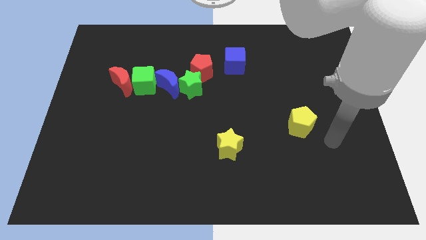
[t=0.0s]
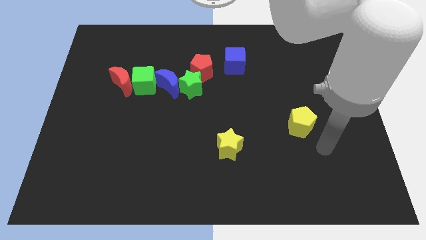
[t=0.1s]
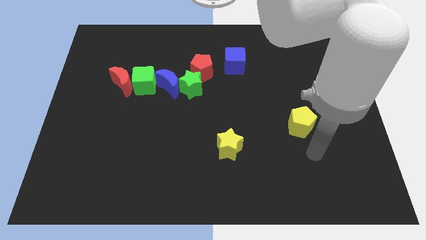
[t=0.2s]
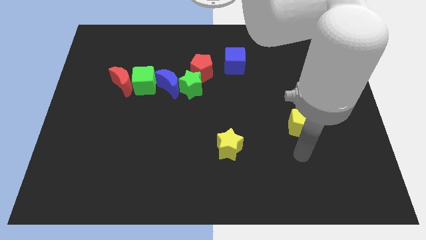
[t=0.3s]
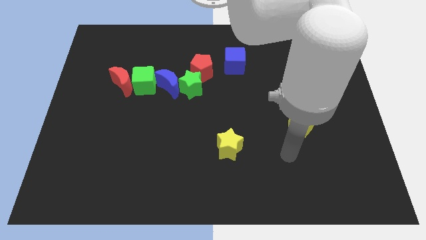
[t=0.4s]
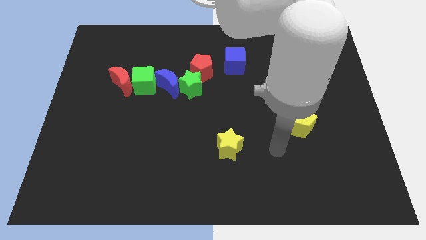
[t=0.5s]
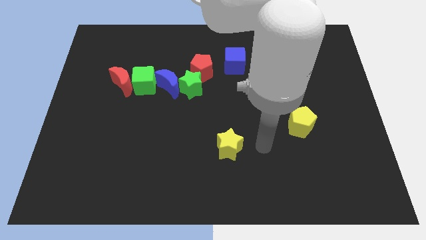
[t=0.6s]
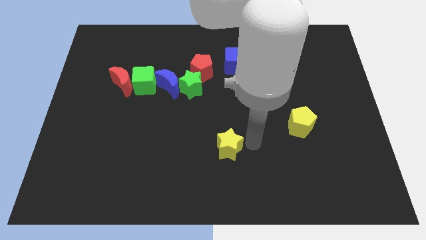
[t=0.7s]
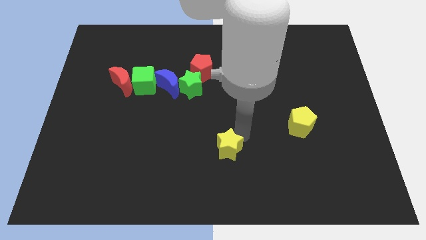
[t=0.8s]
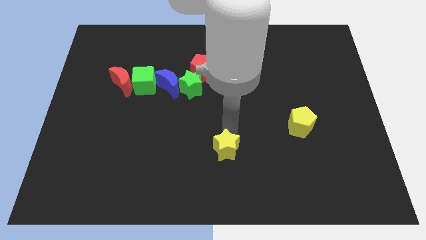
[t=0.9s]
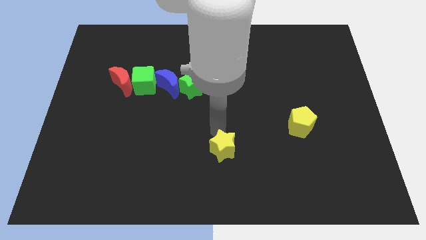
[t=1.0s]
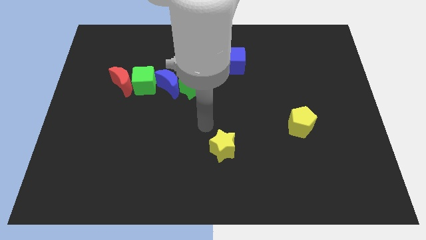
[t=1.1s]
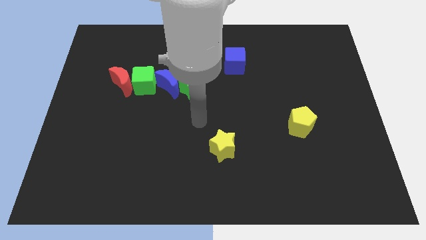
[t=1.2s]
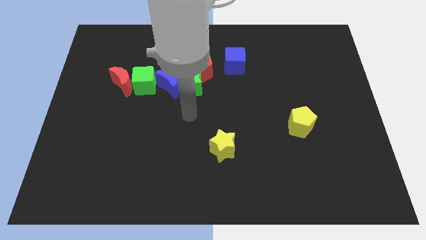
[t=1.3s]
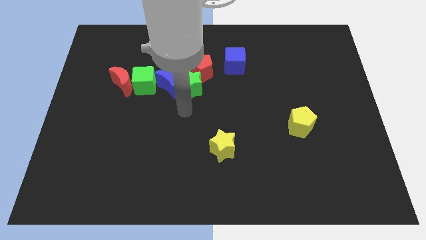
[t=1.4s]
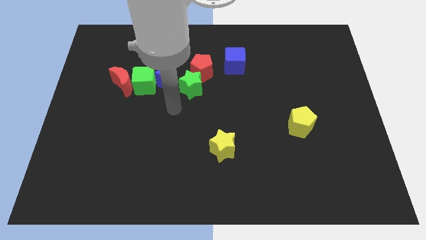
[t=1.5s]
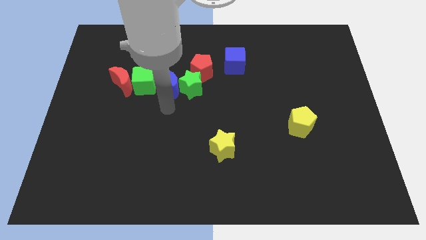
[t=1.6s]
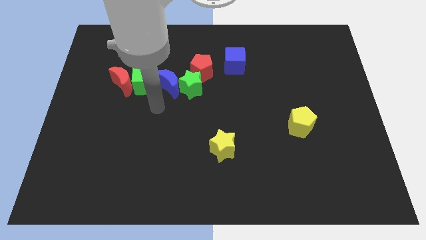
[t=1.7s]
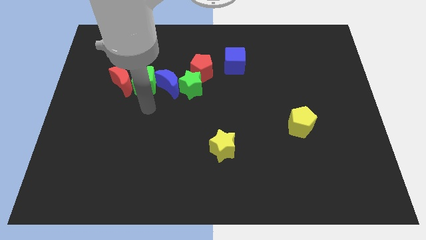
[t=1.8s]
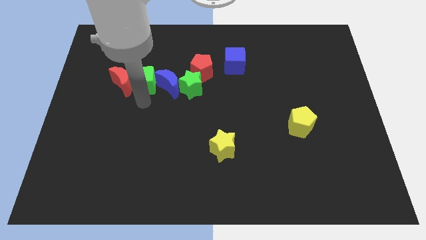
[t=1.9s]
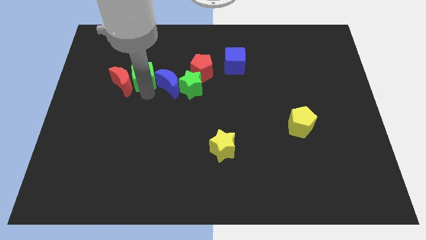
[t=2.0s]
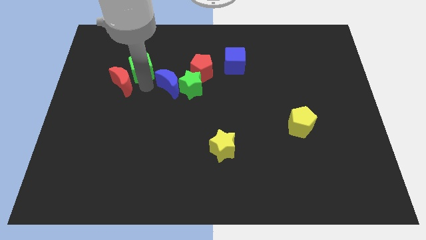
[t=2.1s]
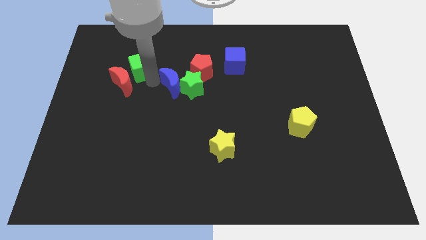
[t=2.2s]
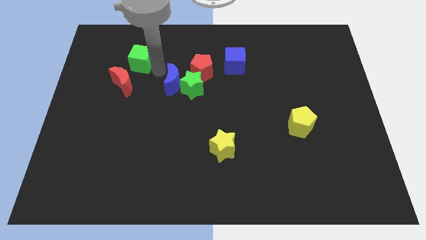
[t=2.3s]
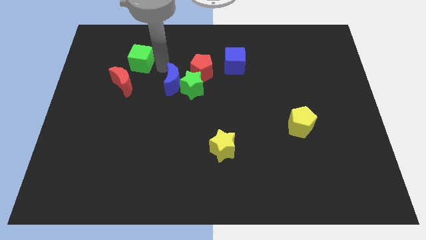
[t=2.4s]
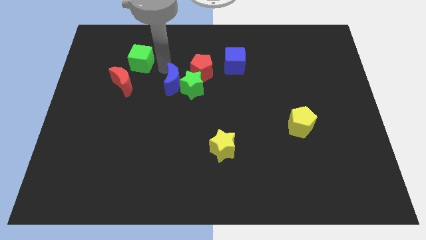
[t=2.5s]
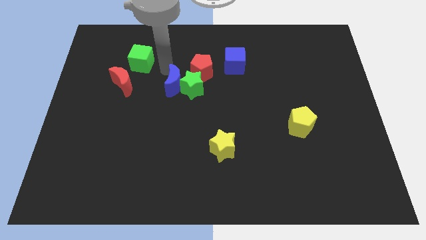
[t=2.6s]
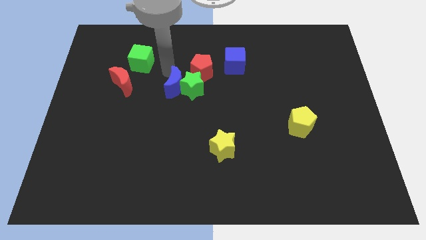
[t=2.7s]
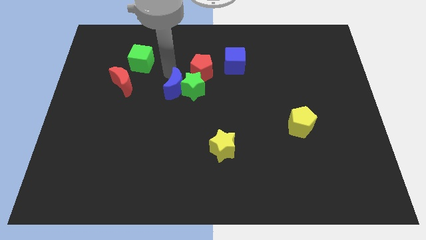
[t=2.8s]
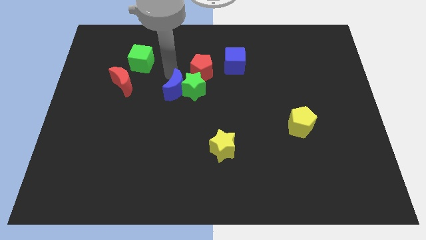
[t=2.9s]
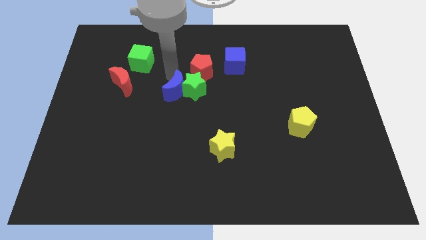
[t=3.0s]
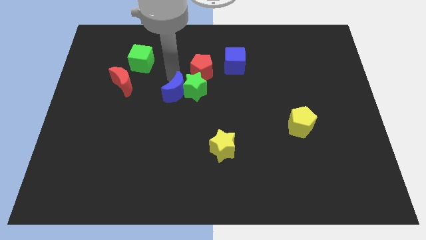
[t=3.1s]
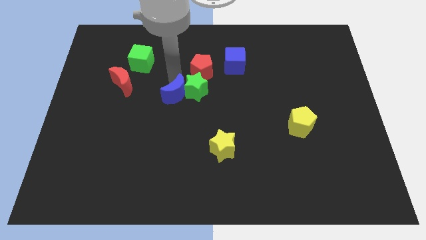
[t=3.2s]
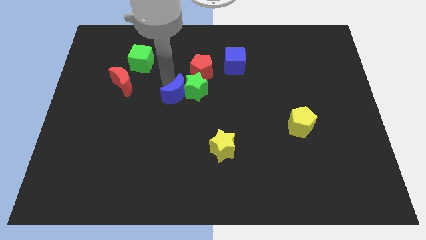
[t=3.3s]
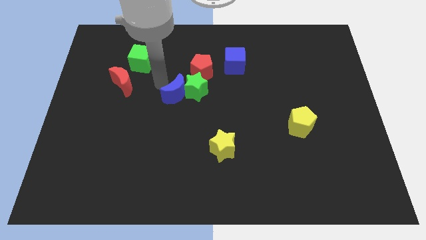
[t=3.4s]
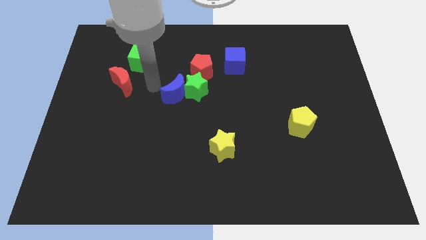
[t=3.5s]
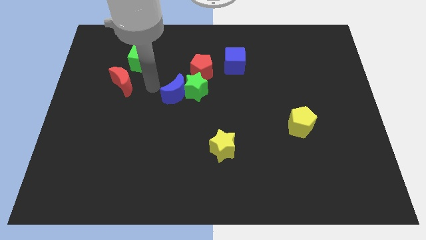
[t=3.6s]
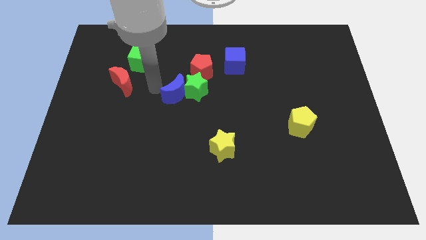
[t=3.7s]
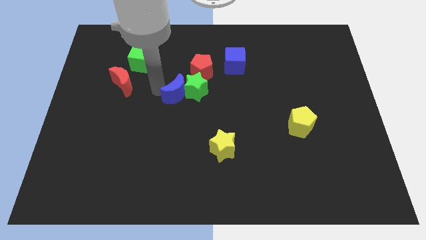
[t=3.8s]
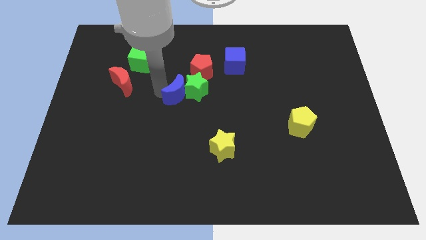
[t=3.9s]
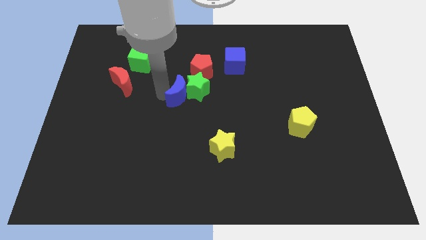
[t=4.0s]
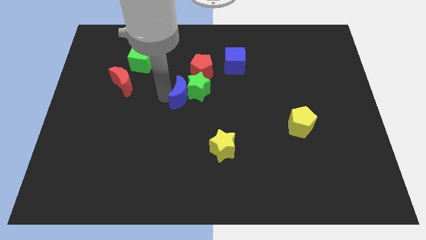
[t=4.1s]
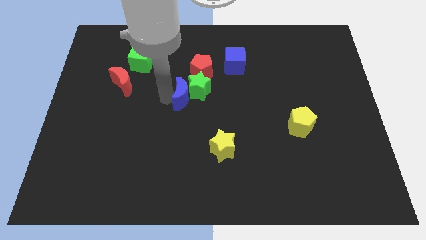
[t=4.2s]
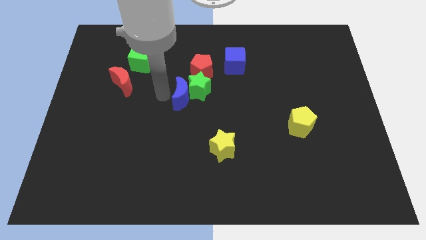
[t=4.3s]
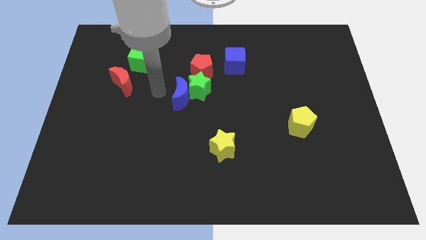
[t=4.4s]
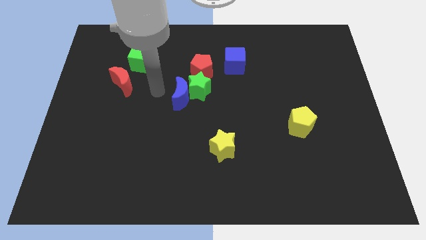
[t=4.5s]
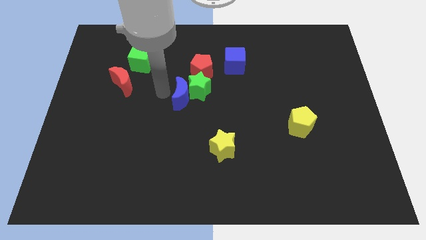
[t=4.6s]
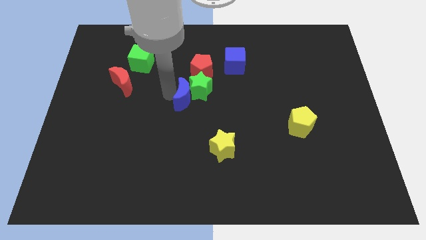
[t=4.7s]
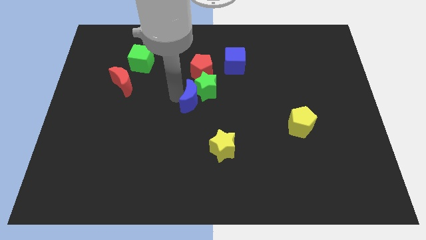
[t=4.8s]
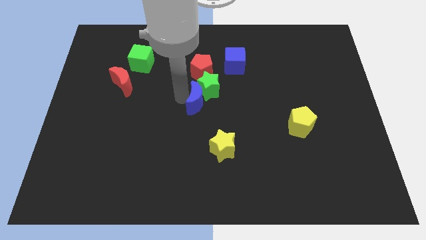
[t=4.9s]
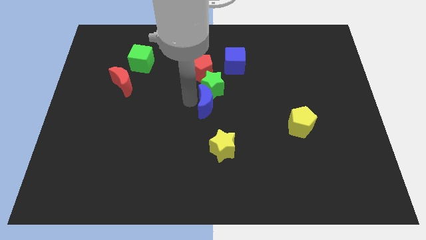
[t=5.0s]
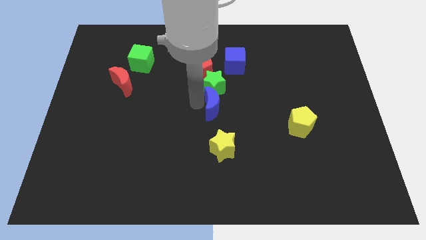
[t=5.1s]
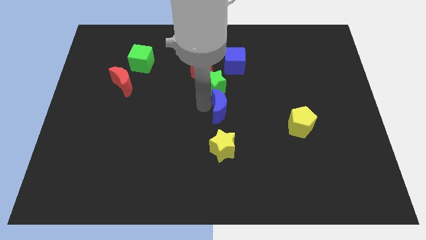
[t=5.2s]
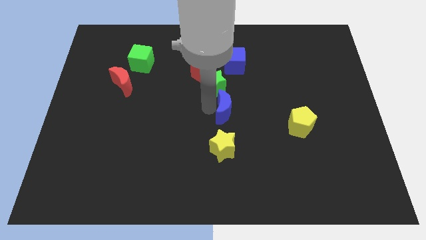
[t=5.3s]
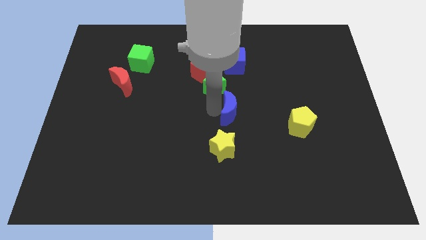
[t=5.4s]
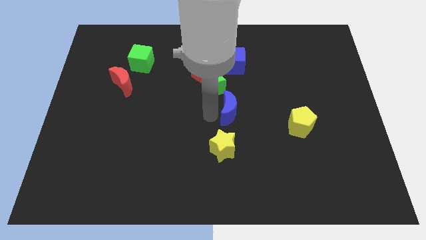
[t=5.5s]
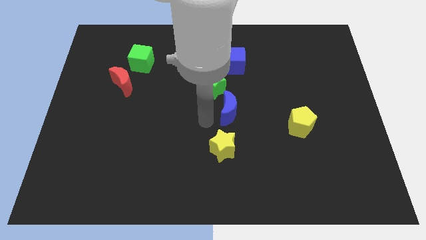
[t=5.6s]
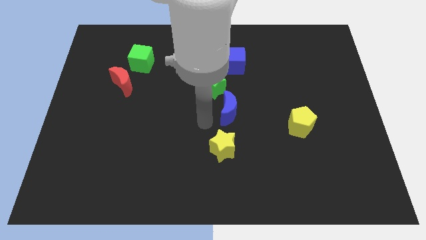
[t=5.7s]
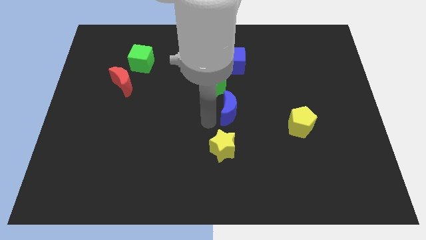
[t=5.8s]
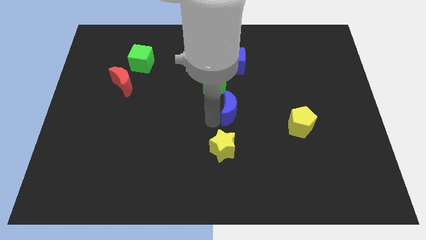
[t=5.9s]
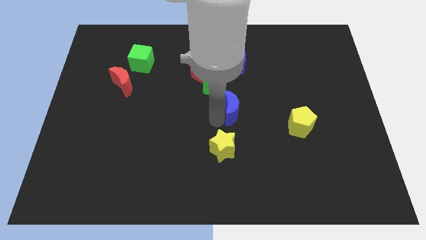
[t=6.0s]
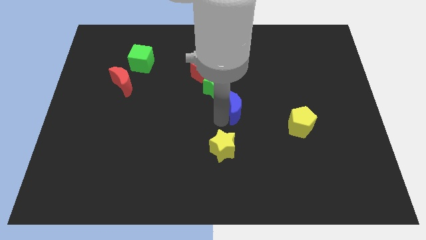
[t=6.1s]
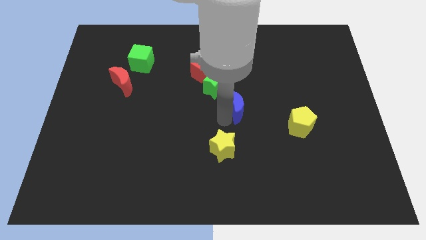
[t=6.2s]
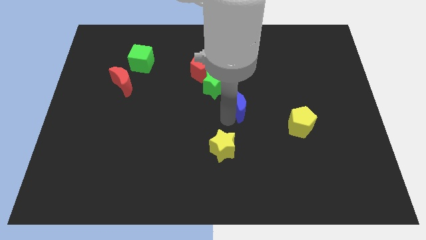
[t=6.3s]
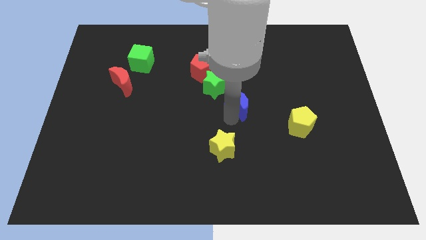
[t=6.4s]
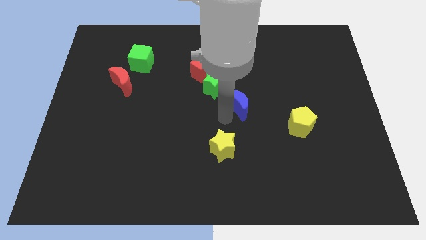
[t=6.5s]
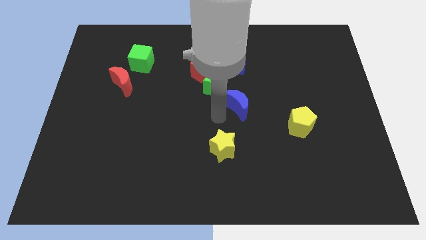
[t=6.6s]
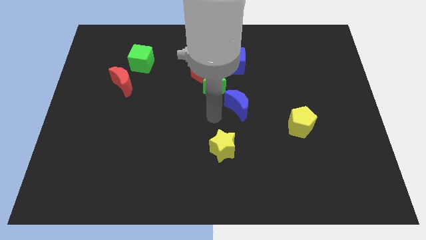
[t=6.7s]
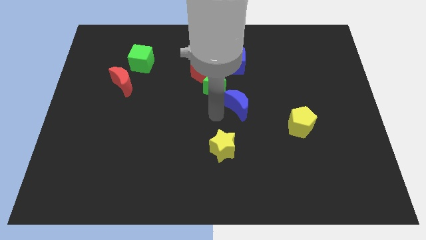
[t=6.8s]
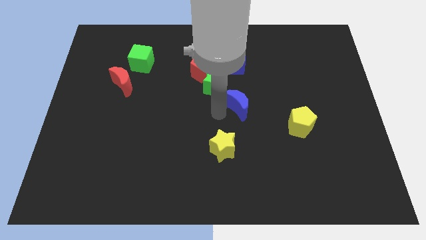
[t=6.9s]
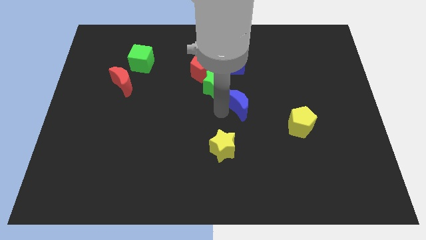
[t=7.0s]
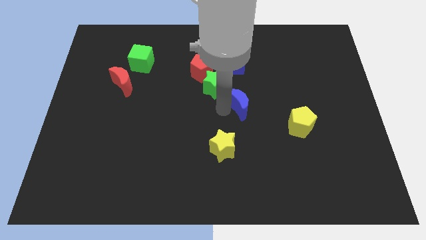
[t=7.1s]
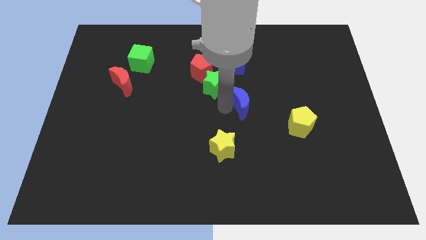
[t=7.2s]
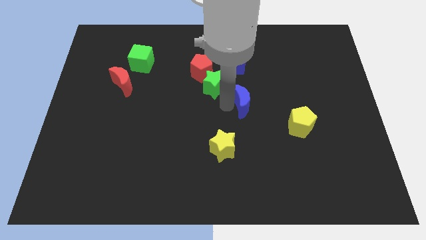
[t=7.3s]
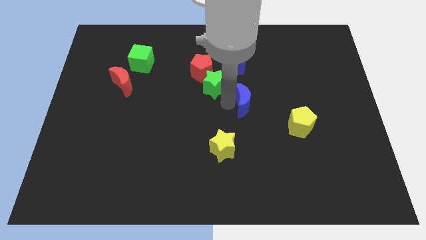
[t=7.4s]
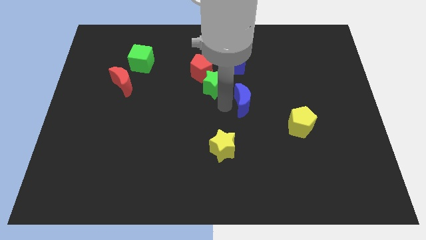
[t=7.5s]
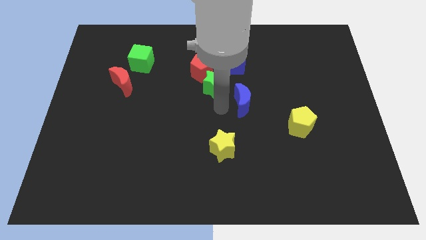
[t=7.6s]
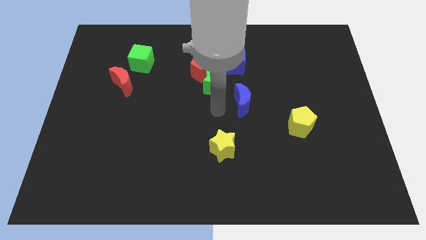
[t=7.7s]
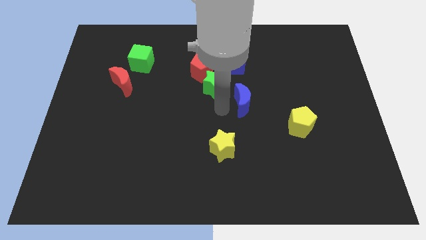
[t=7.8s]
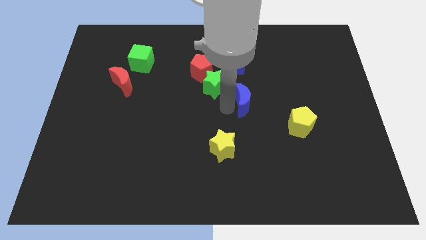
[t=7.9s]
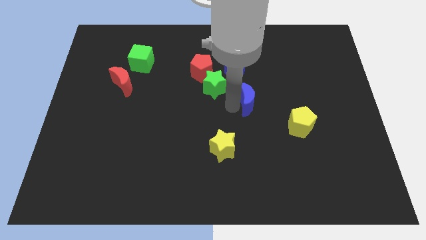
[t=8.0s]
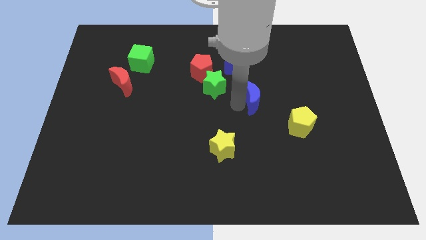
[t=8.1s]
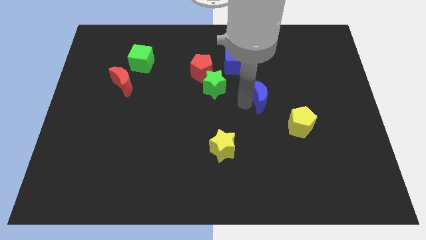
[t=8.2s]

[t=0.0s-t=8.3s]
move the blue moon to the right
